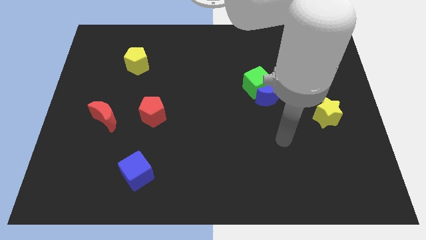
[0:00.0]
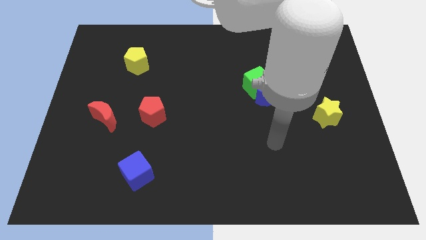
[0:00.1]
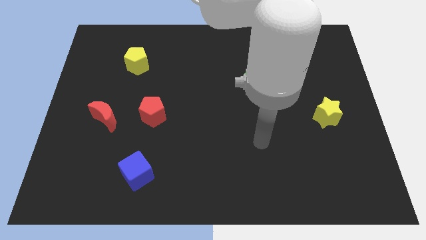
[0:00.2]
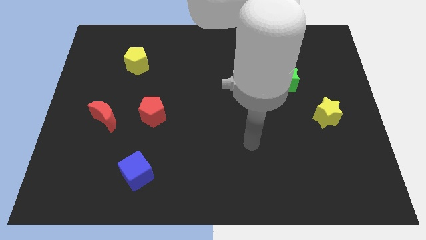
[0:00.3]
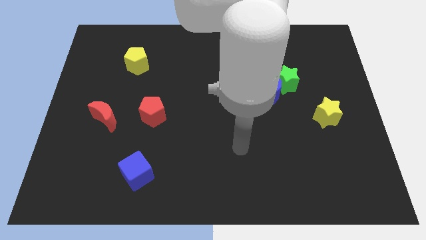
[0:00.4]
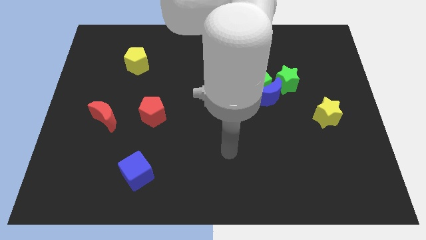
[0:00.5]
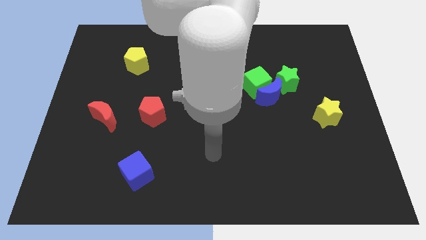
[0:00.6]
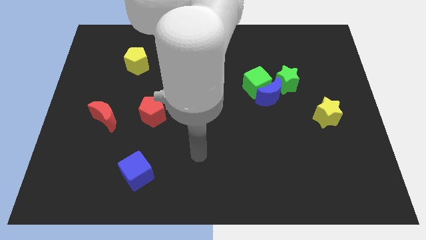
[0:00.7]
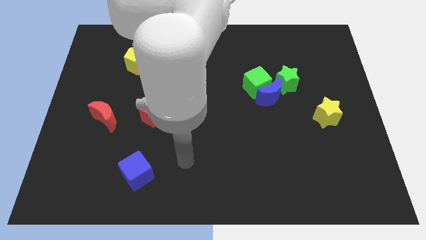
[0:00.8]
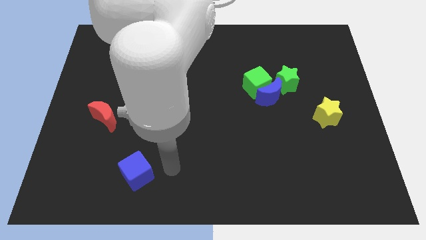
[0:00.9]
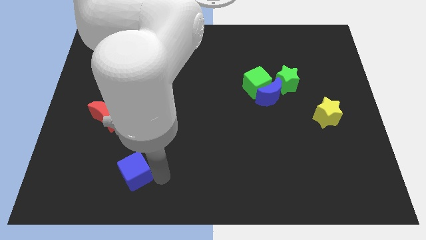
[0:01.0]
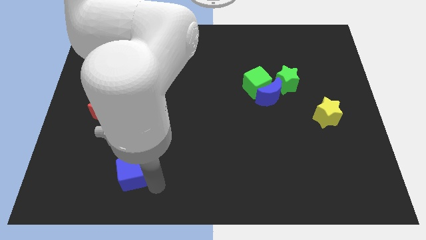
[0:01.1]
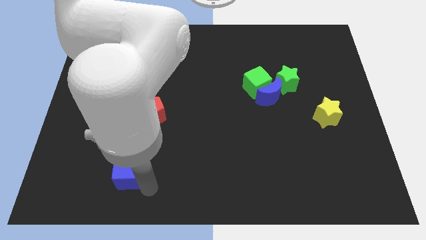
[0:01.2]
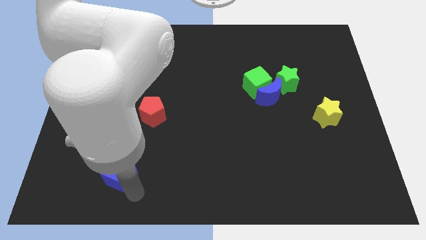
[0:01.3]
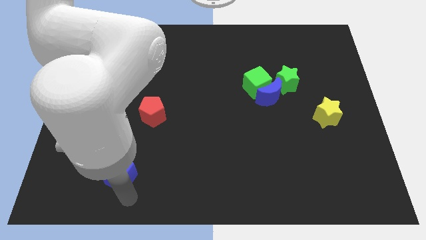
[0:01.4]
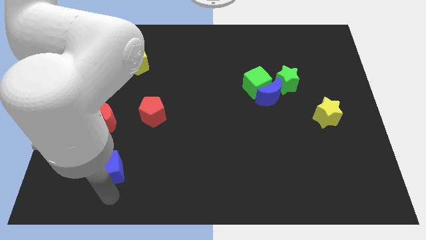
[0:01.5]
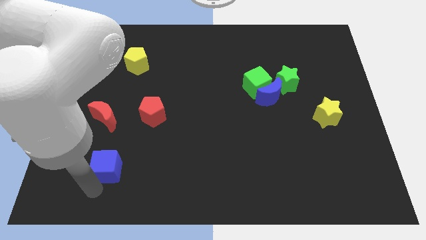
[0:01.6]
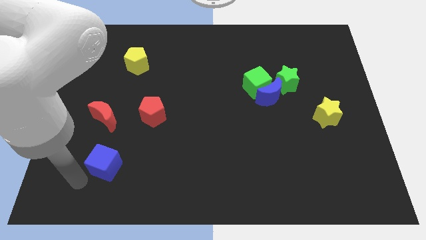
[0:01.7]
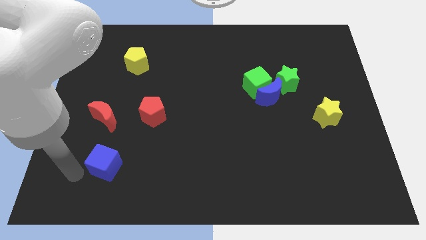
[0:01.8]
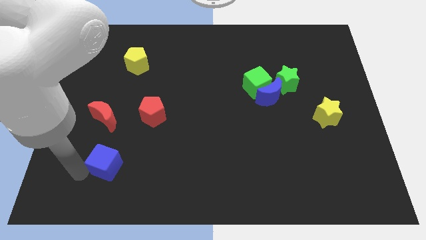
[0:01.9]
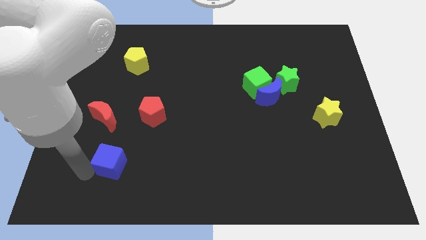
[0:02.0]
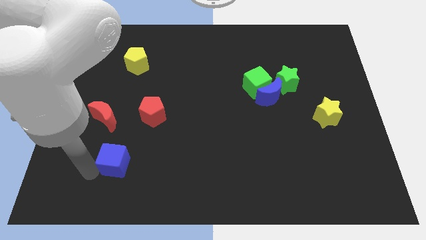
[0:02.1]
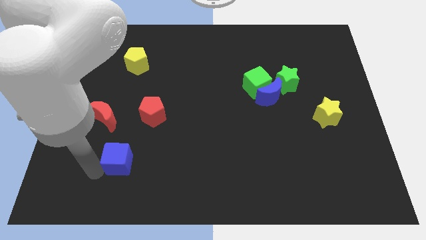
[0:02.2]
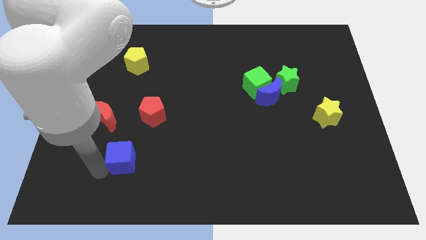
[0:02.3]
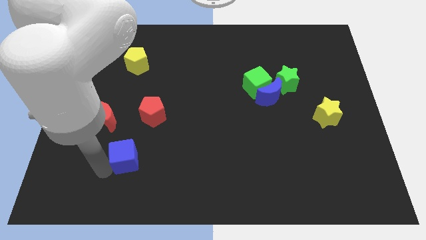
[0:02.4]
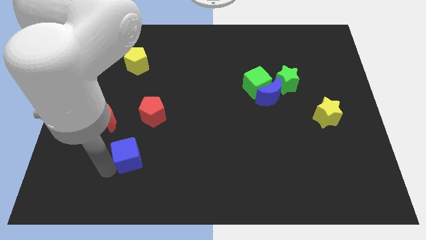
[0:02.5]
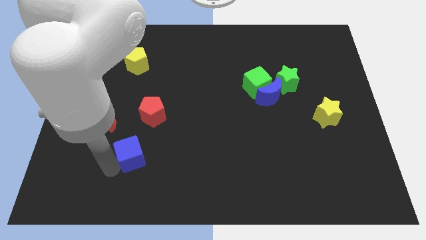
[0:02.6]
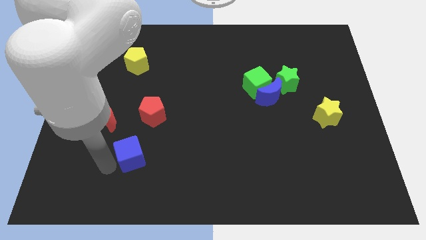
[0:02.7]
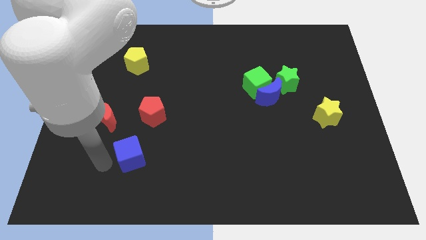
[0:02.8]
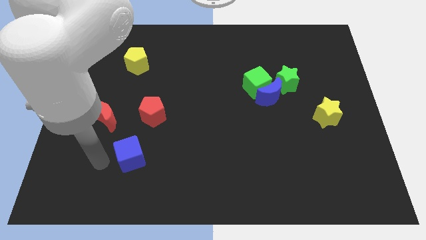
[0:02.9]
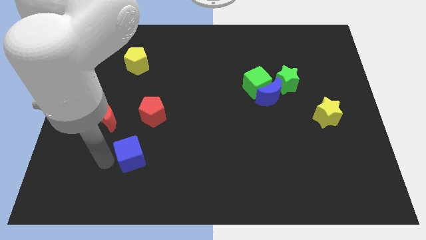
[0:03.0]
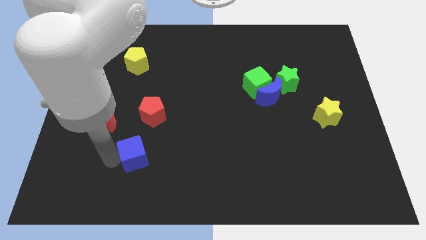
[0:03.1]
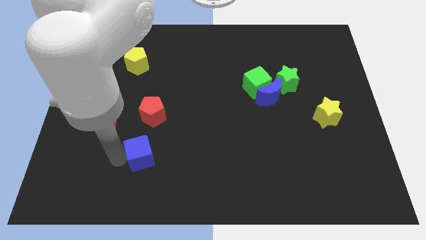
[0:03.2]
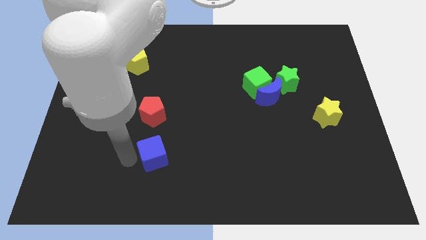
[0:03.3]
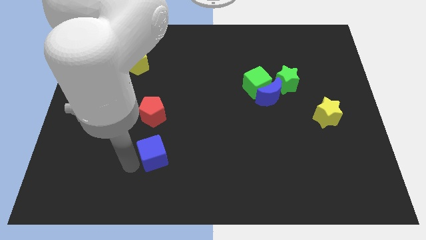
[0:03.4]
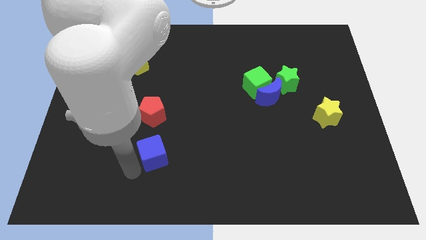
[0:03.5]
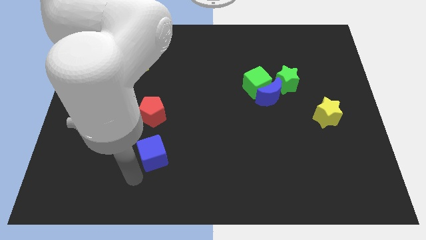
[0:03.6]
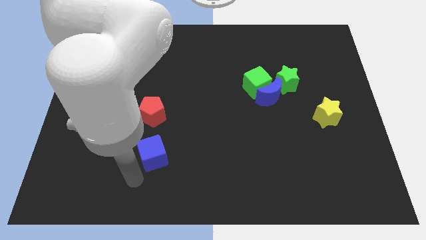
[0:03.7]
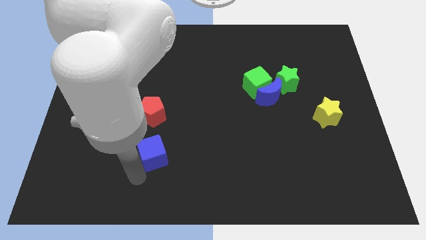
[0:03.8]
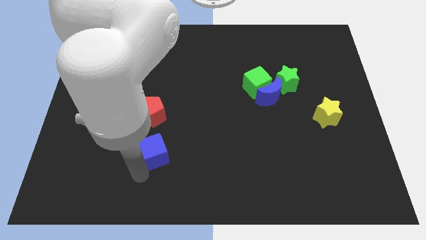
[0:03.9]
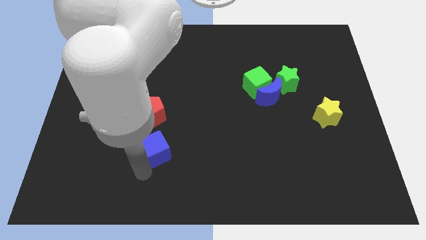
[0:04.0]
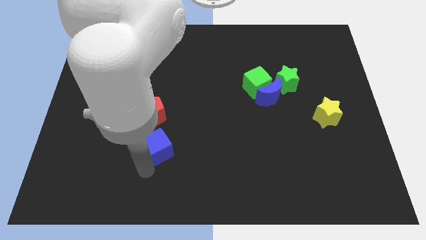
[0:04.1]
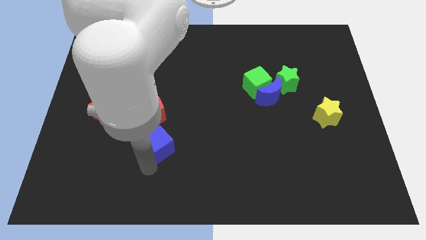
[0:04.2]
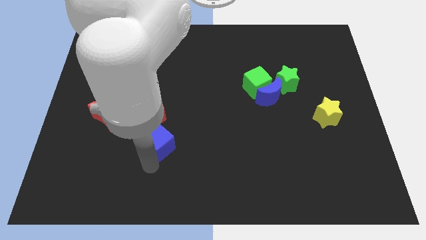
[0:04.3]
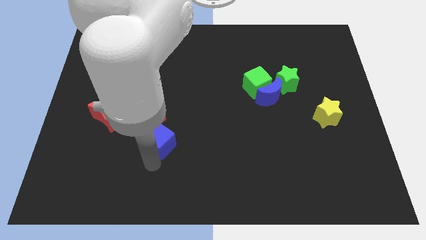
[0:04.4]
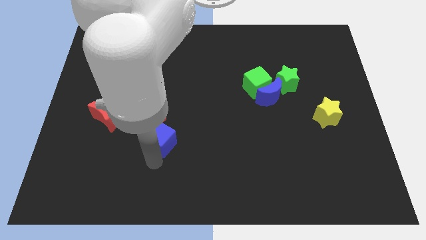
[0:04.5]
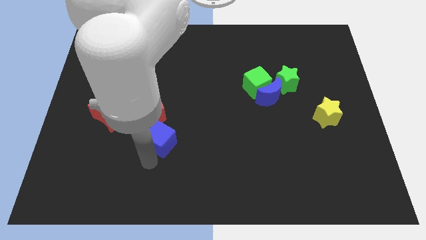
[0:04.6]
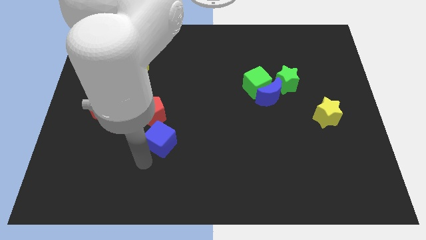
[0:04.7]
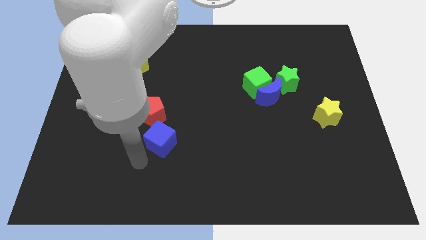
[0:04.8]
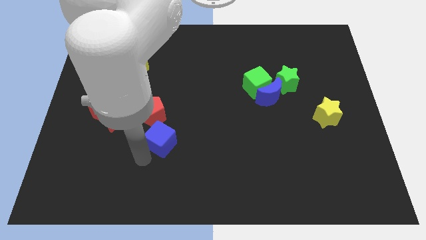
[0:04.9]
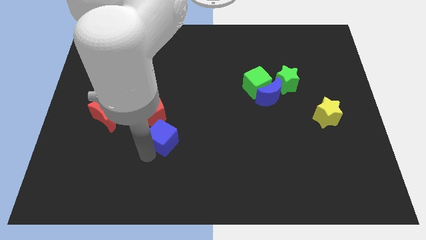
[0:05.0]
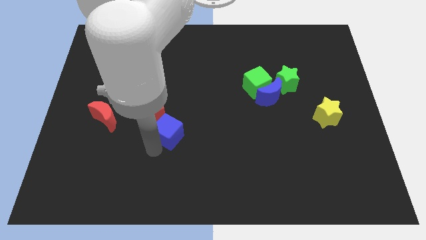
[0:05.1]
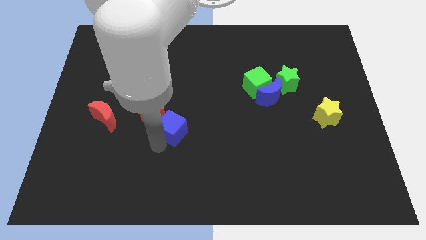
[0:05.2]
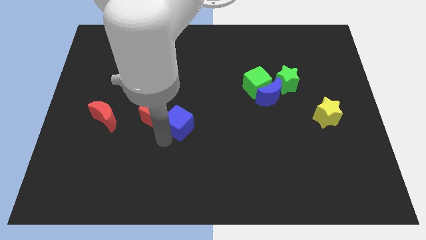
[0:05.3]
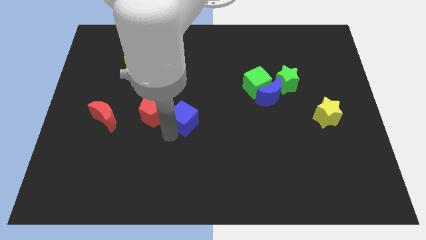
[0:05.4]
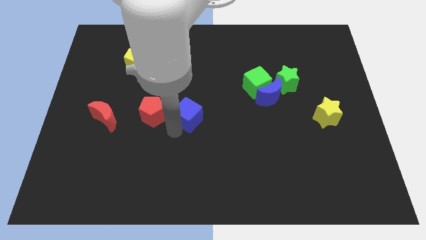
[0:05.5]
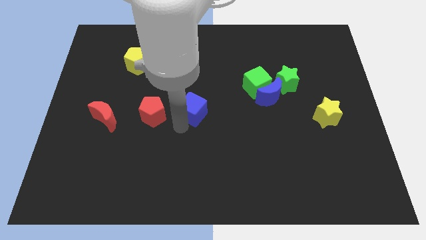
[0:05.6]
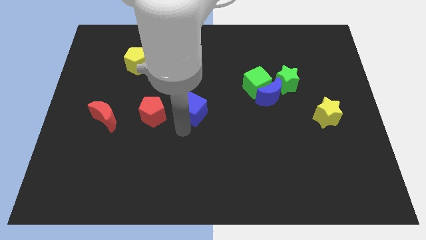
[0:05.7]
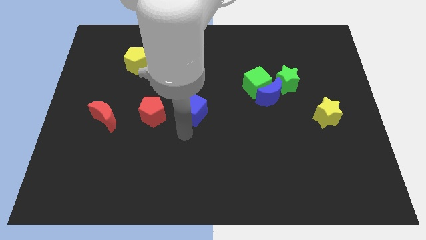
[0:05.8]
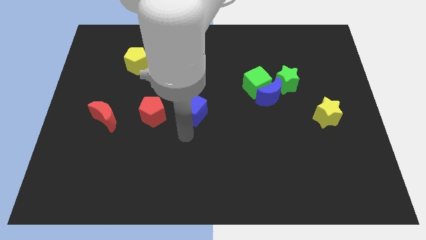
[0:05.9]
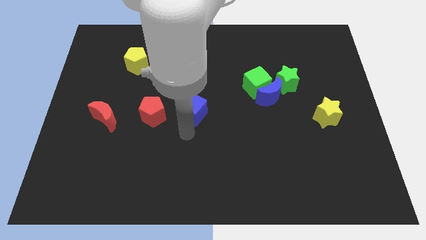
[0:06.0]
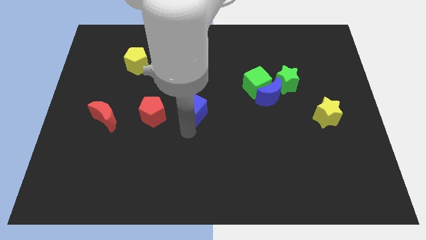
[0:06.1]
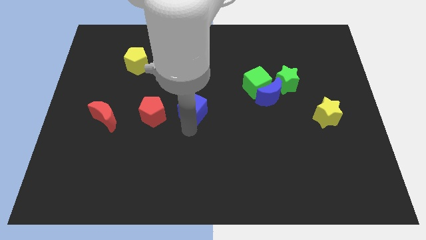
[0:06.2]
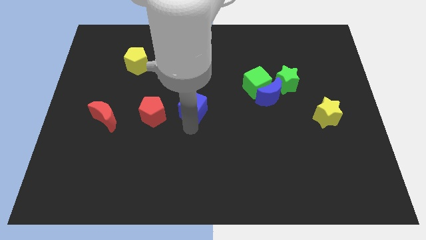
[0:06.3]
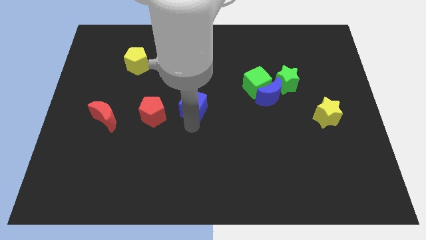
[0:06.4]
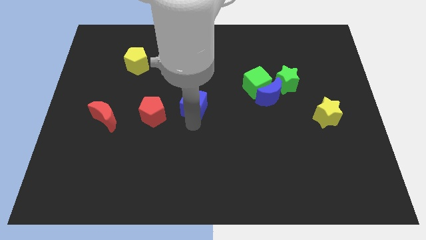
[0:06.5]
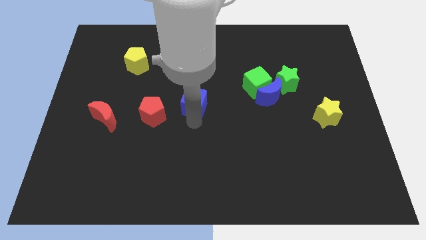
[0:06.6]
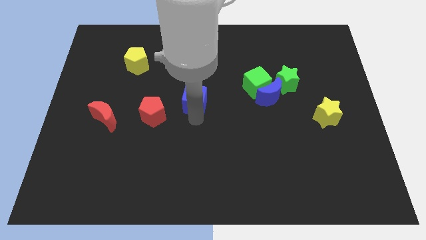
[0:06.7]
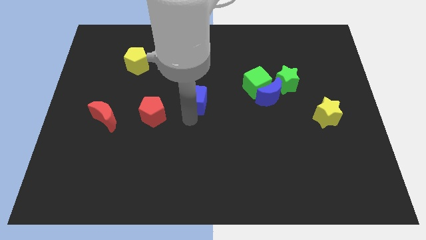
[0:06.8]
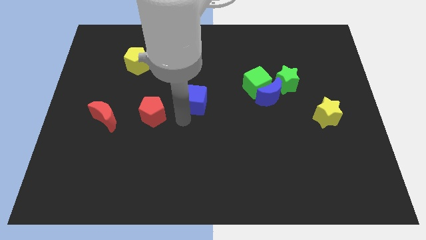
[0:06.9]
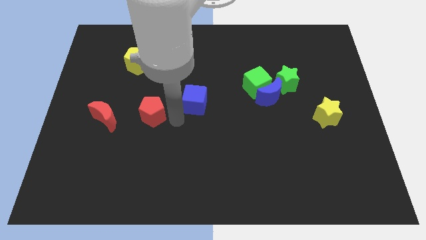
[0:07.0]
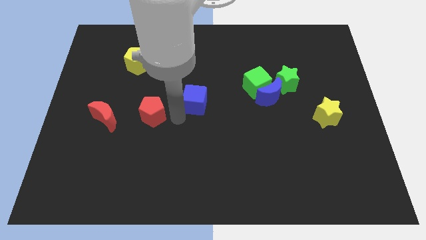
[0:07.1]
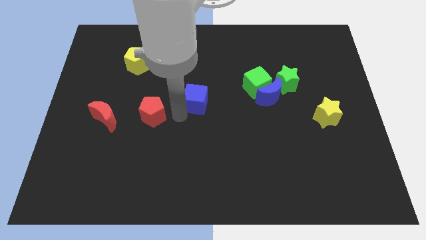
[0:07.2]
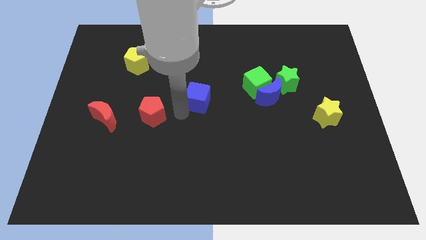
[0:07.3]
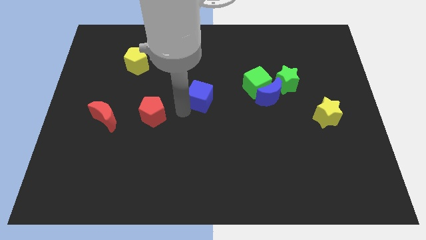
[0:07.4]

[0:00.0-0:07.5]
move the blue cube just left of the green cube
